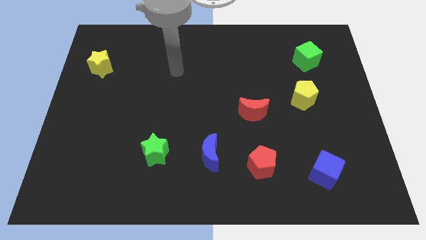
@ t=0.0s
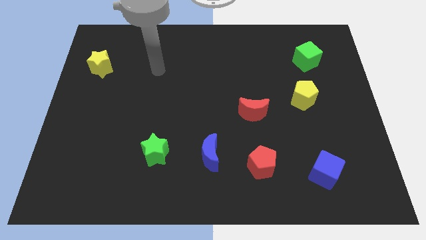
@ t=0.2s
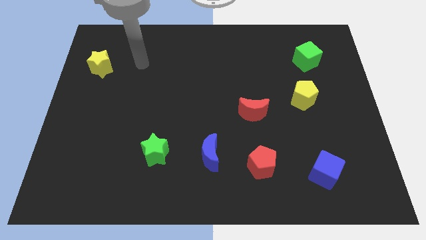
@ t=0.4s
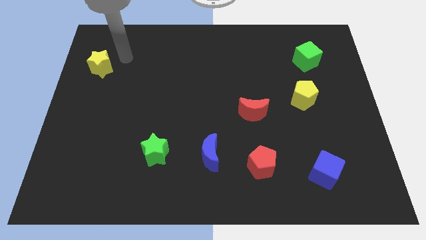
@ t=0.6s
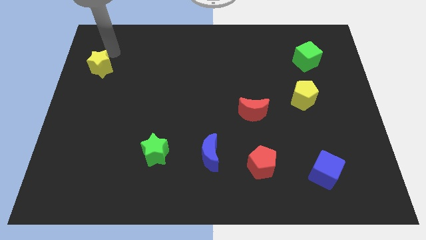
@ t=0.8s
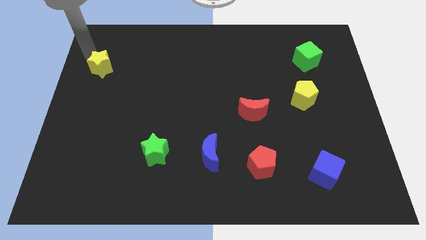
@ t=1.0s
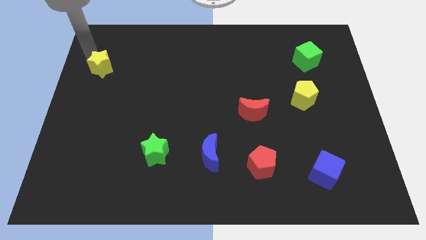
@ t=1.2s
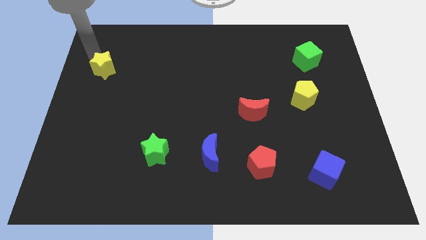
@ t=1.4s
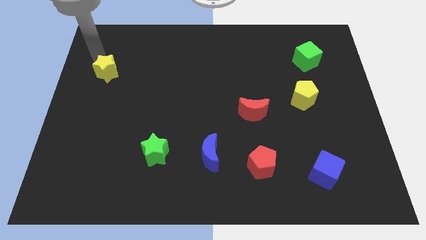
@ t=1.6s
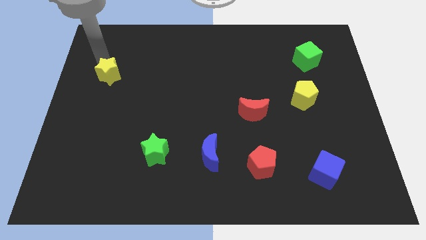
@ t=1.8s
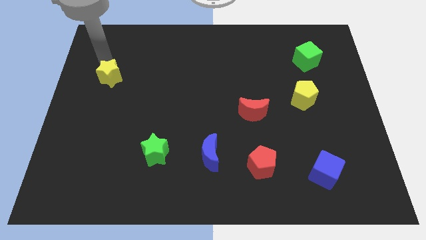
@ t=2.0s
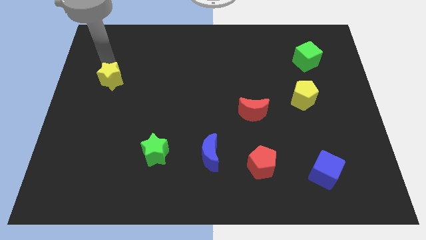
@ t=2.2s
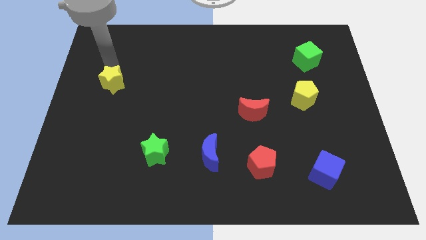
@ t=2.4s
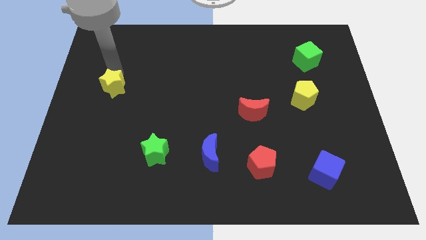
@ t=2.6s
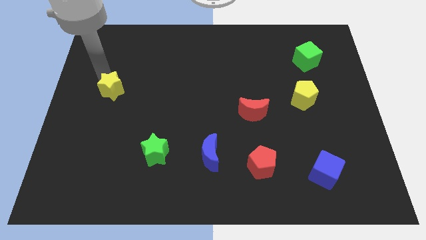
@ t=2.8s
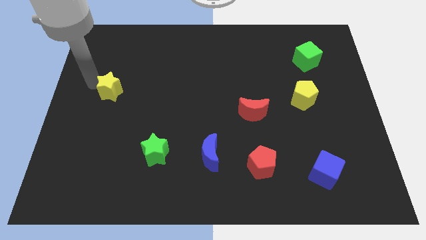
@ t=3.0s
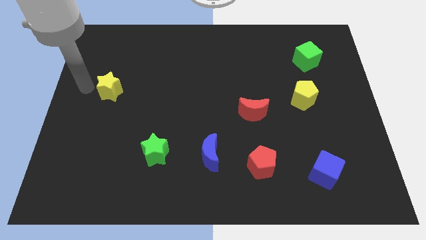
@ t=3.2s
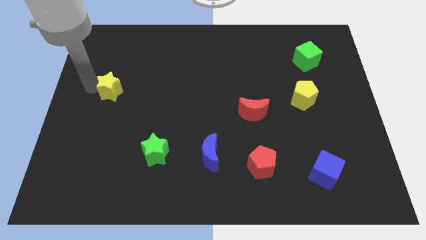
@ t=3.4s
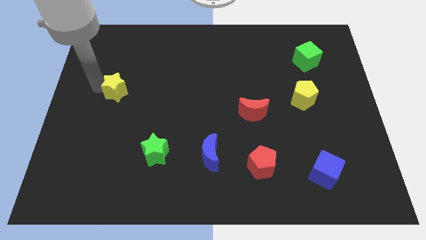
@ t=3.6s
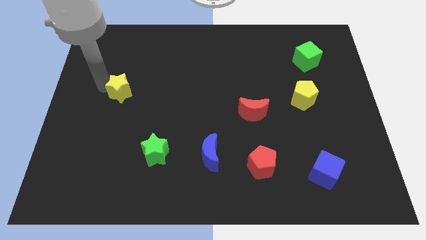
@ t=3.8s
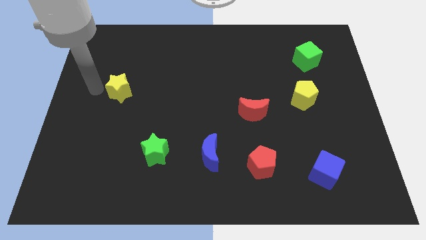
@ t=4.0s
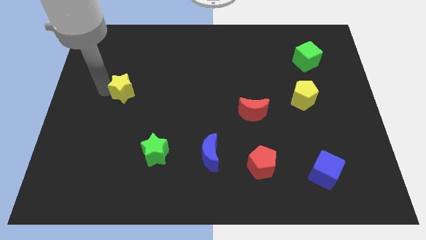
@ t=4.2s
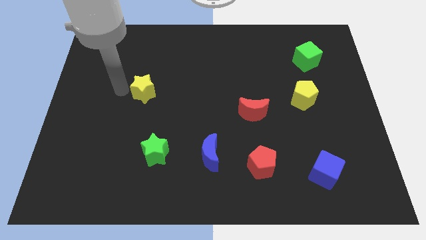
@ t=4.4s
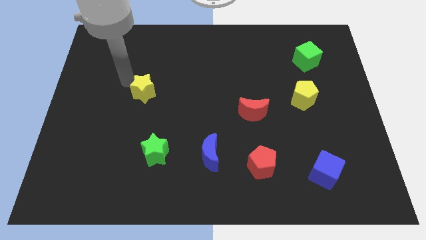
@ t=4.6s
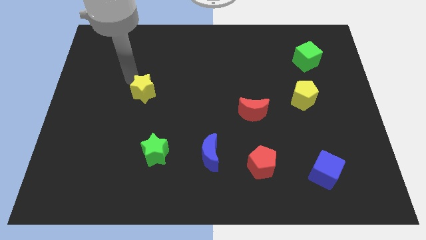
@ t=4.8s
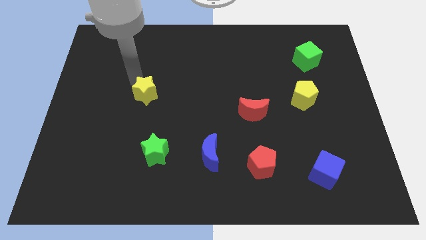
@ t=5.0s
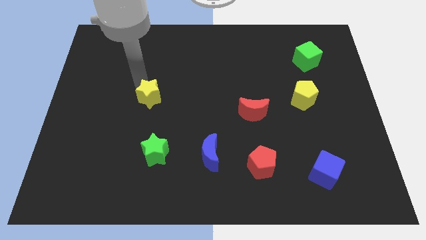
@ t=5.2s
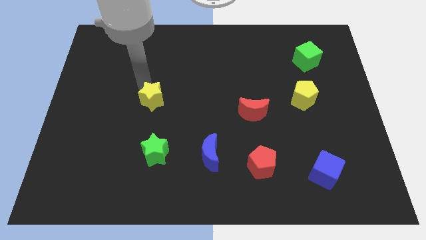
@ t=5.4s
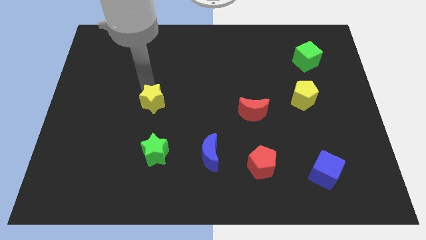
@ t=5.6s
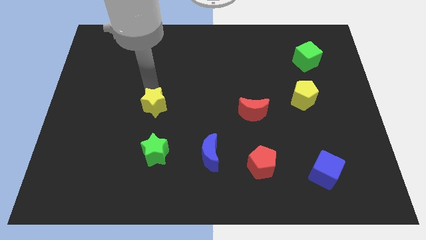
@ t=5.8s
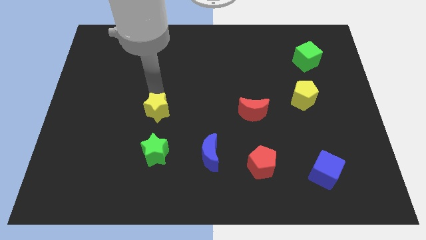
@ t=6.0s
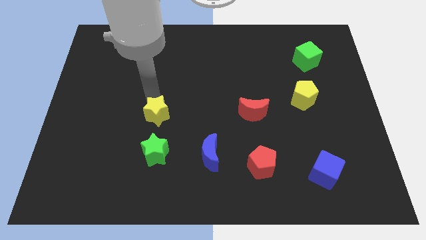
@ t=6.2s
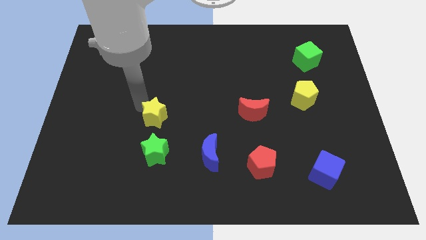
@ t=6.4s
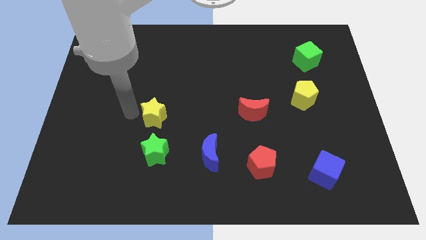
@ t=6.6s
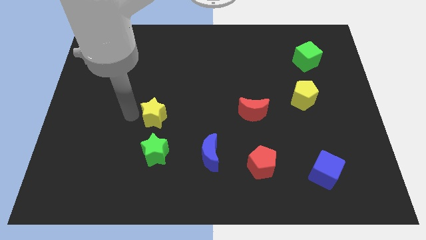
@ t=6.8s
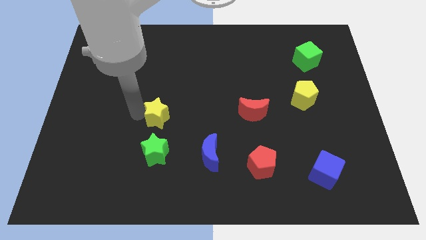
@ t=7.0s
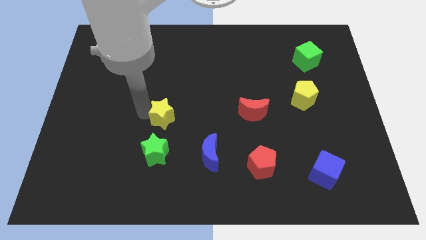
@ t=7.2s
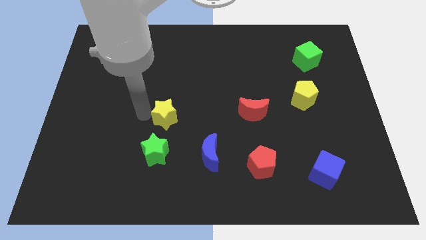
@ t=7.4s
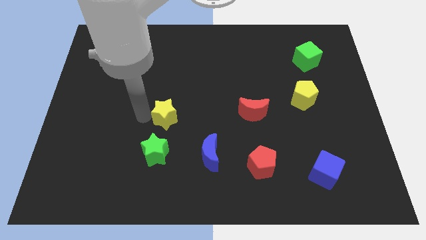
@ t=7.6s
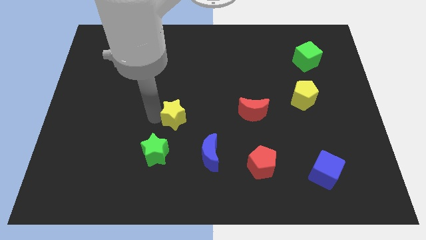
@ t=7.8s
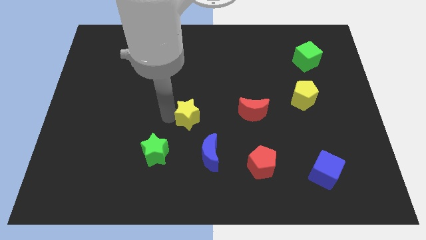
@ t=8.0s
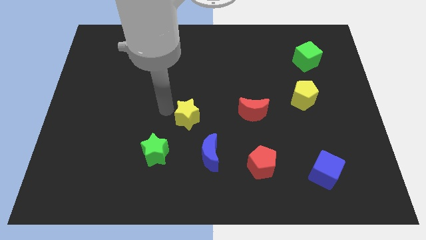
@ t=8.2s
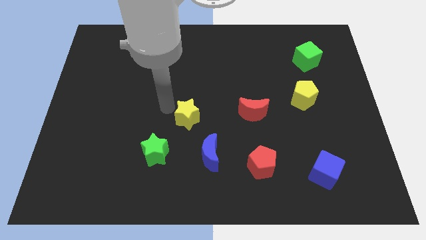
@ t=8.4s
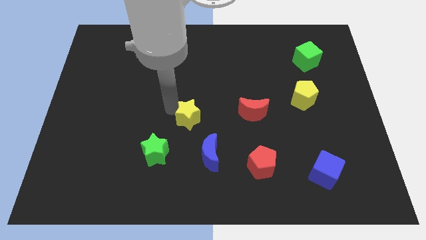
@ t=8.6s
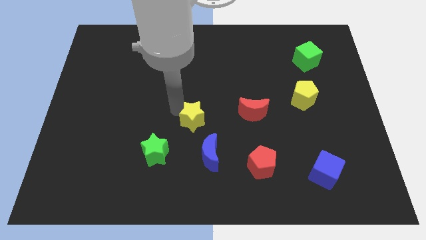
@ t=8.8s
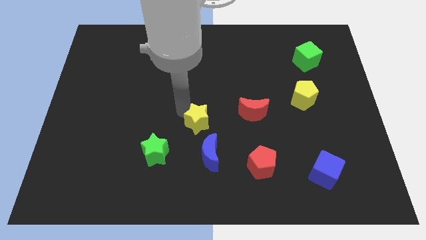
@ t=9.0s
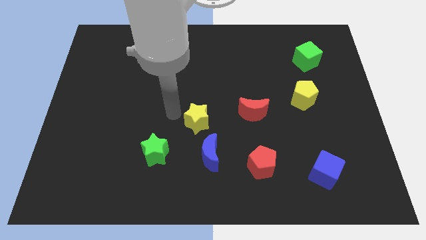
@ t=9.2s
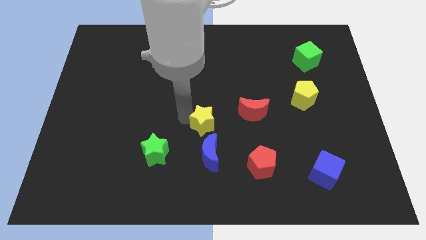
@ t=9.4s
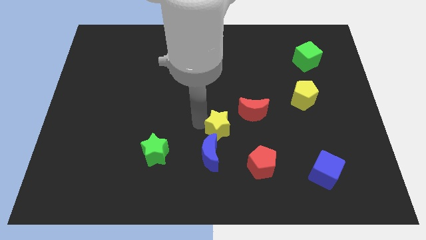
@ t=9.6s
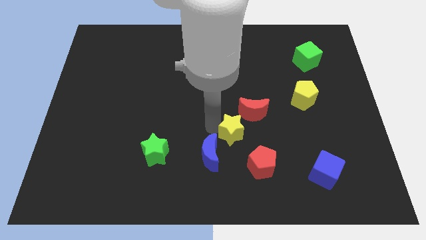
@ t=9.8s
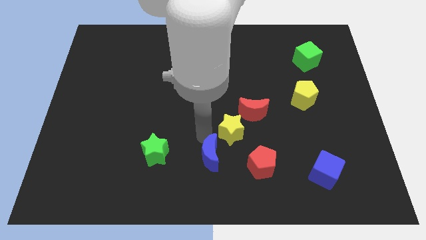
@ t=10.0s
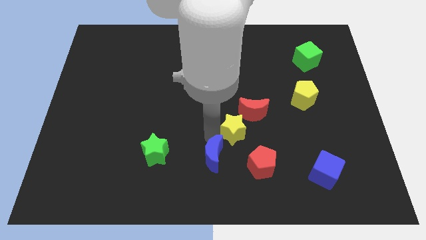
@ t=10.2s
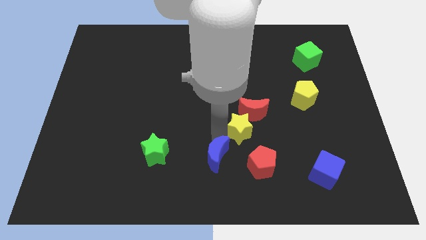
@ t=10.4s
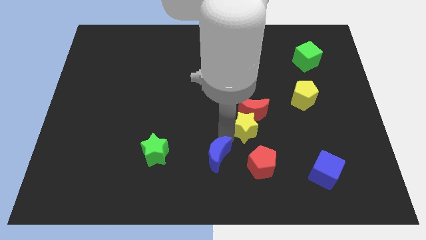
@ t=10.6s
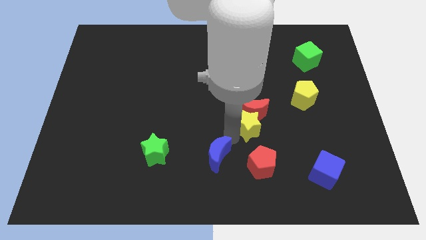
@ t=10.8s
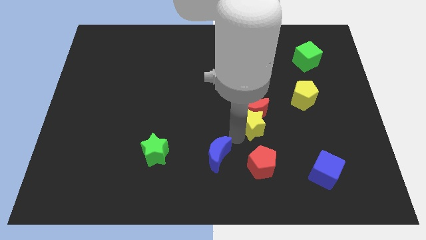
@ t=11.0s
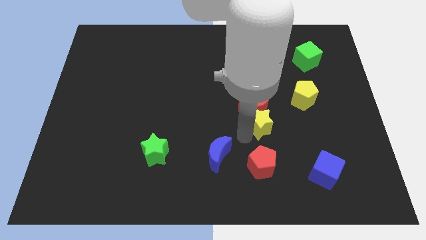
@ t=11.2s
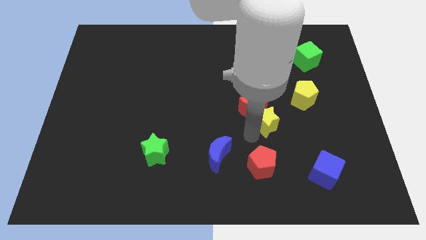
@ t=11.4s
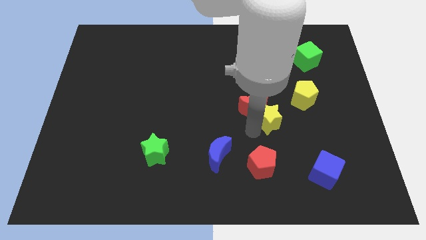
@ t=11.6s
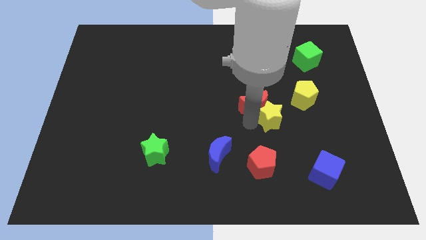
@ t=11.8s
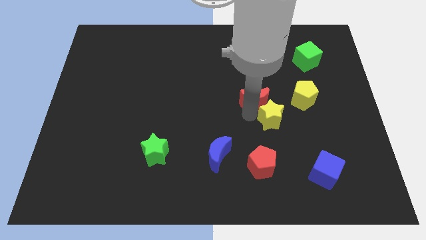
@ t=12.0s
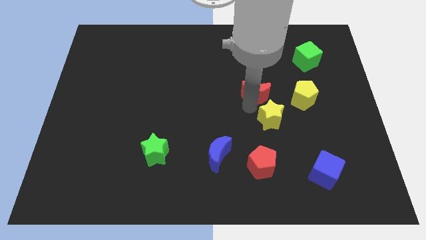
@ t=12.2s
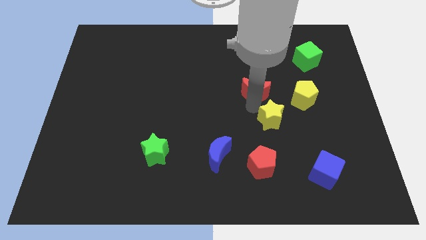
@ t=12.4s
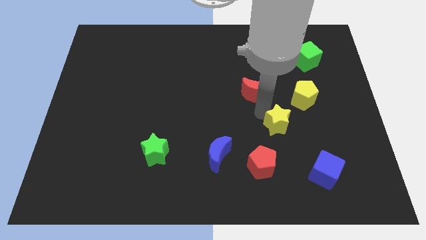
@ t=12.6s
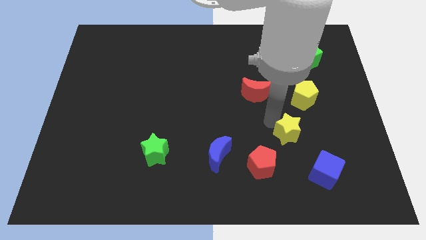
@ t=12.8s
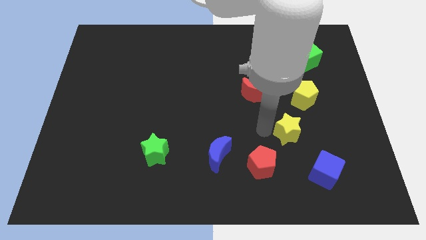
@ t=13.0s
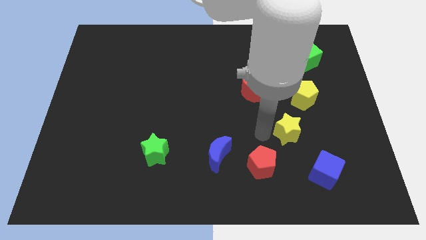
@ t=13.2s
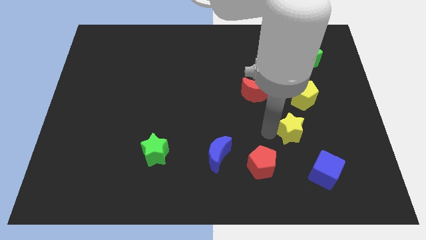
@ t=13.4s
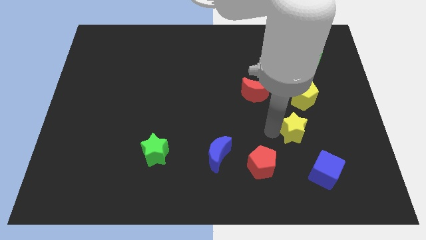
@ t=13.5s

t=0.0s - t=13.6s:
slide the yellow star above the blue cube
